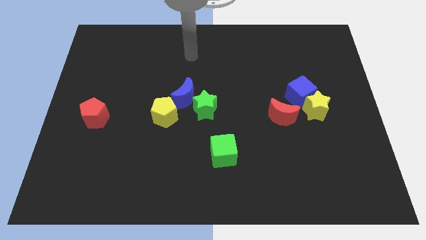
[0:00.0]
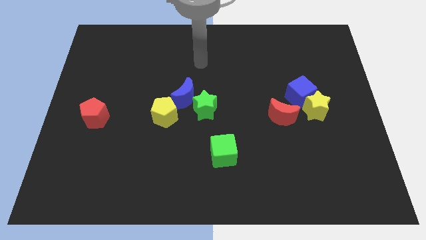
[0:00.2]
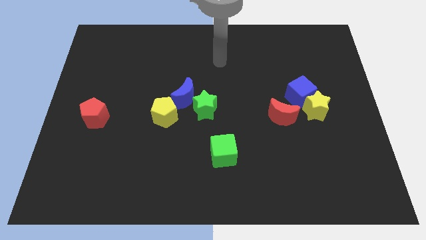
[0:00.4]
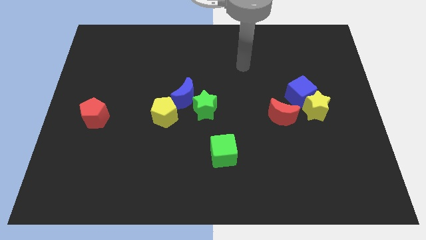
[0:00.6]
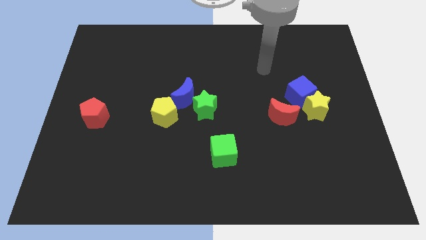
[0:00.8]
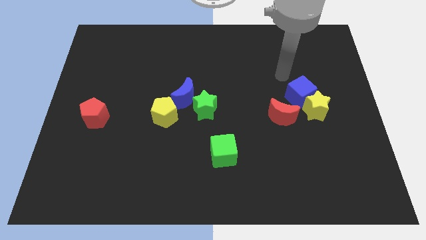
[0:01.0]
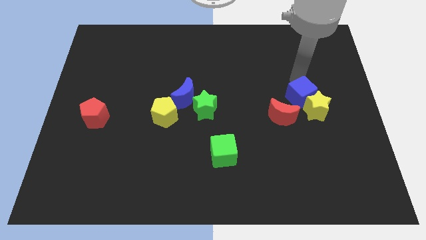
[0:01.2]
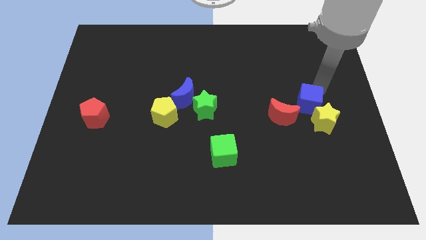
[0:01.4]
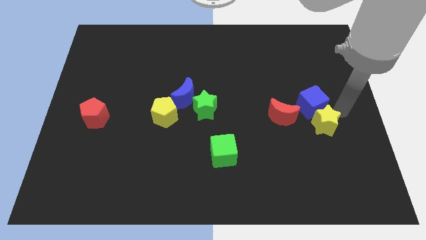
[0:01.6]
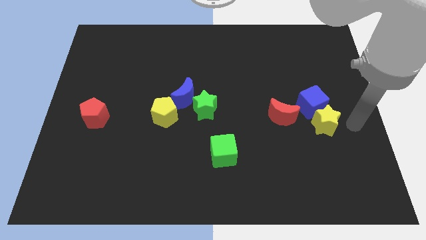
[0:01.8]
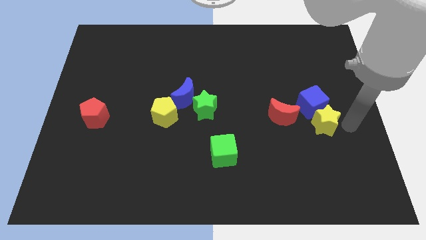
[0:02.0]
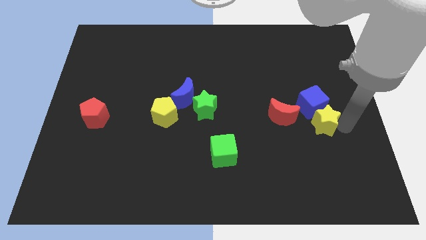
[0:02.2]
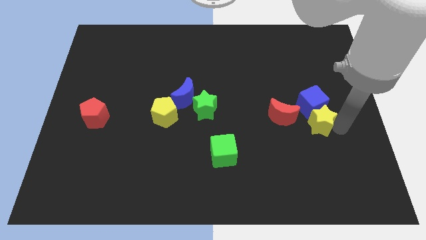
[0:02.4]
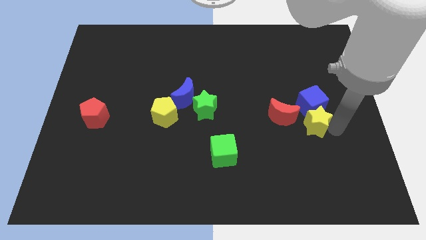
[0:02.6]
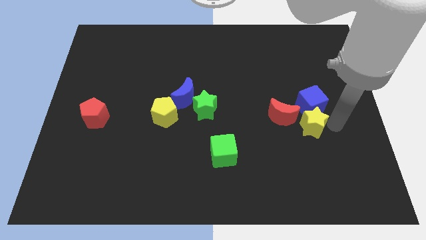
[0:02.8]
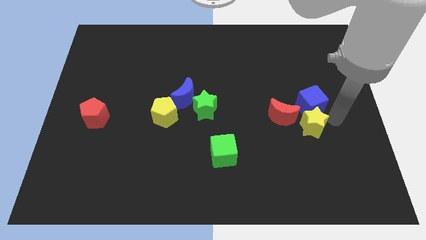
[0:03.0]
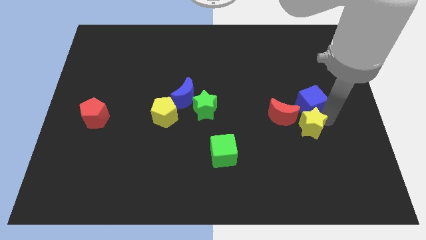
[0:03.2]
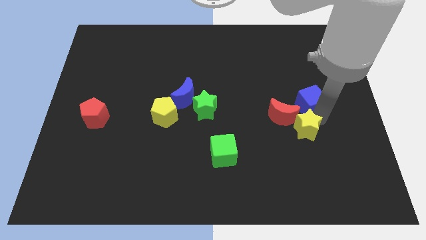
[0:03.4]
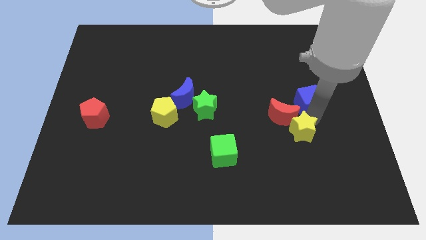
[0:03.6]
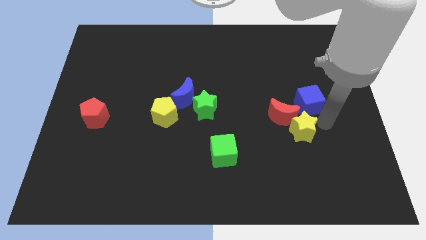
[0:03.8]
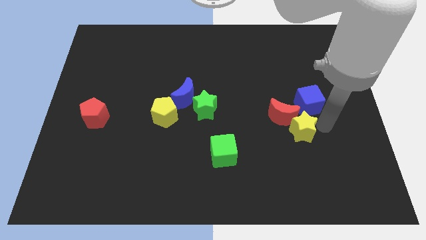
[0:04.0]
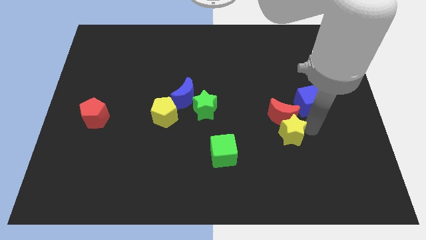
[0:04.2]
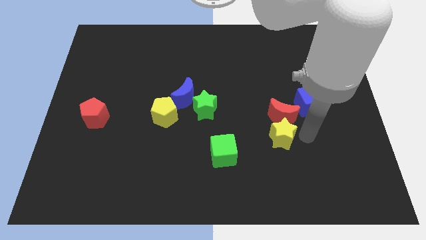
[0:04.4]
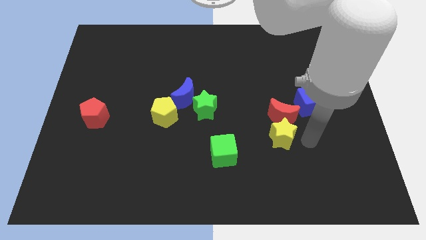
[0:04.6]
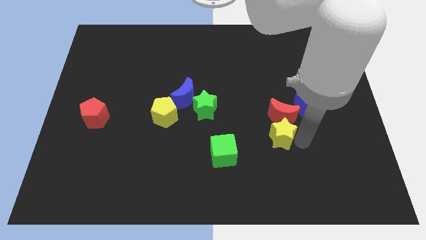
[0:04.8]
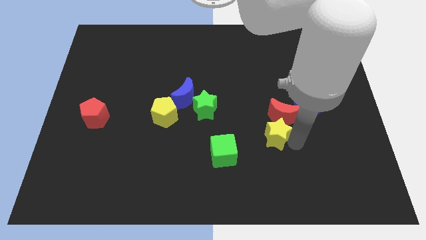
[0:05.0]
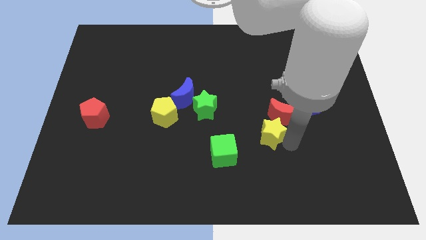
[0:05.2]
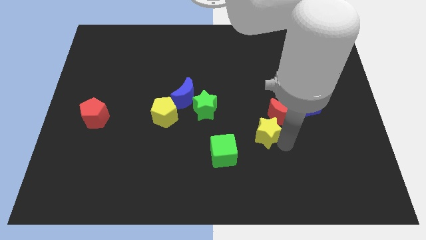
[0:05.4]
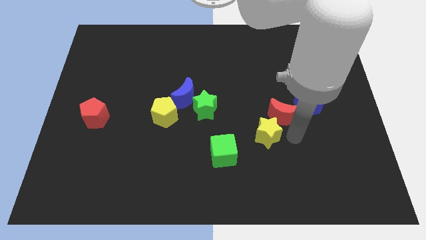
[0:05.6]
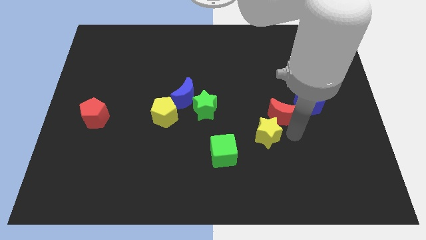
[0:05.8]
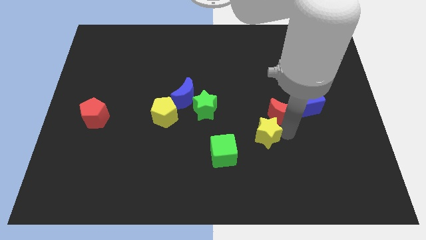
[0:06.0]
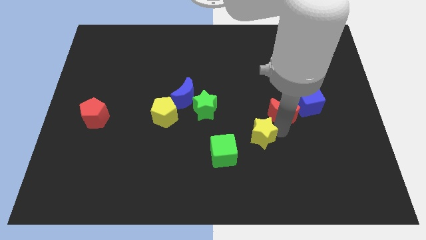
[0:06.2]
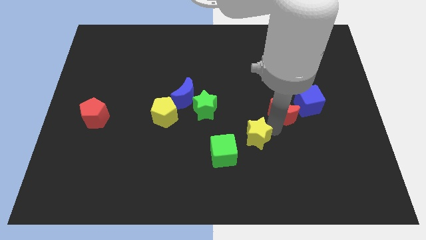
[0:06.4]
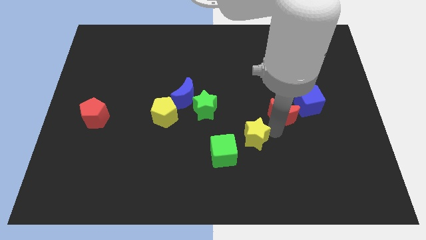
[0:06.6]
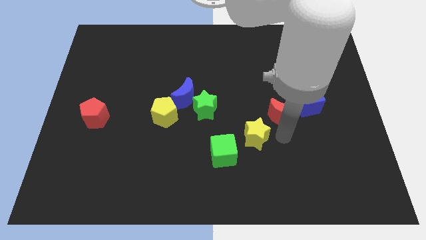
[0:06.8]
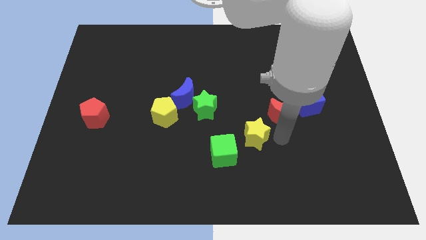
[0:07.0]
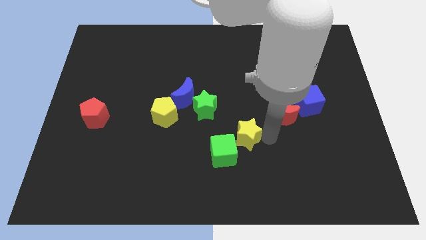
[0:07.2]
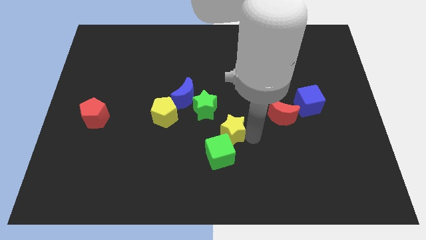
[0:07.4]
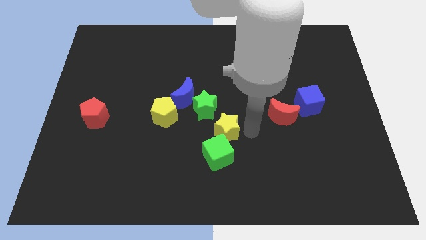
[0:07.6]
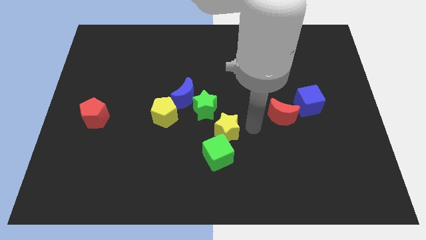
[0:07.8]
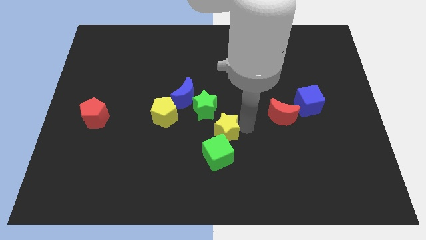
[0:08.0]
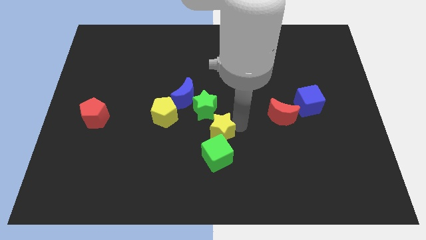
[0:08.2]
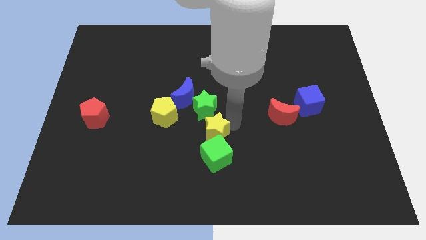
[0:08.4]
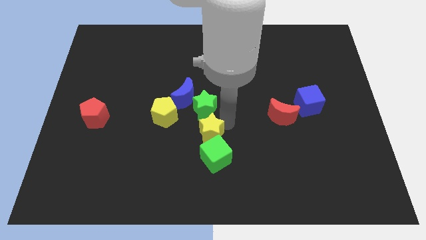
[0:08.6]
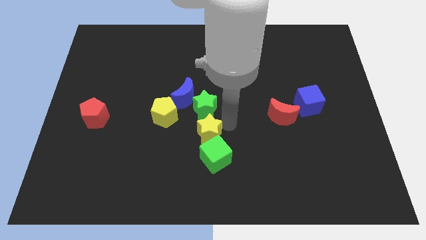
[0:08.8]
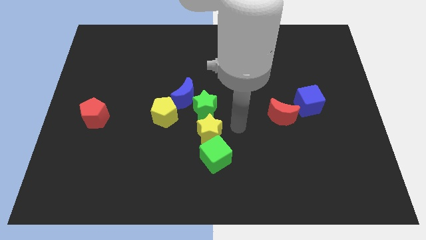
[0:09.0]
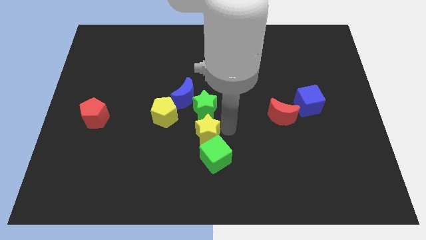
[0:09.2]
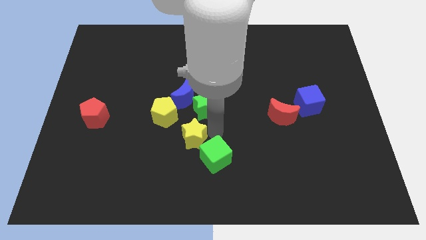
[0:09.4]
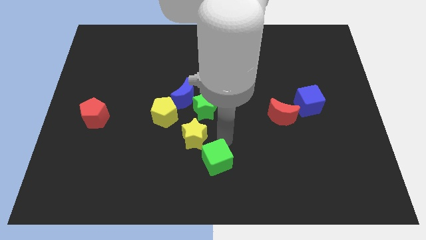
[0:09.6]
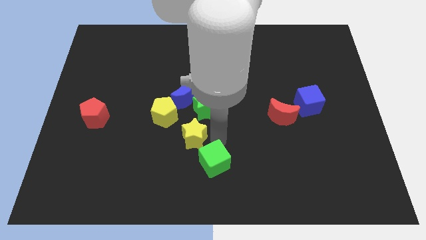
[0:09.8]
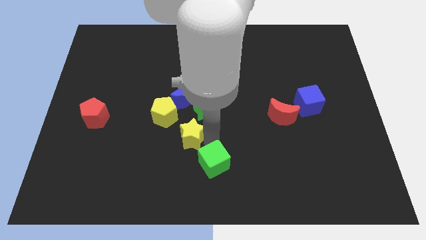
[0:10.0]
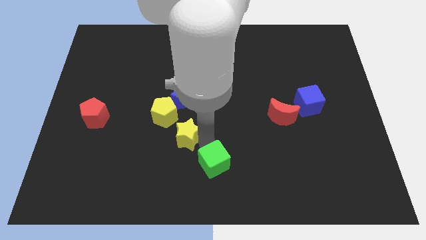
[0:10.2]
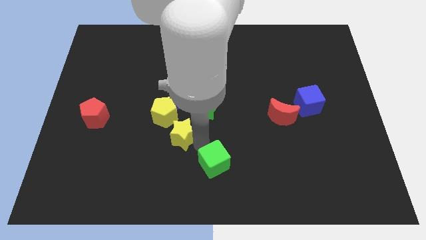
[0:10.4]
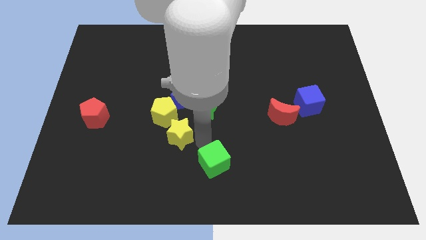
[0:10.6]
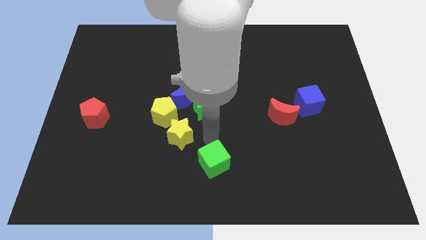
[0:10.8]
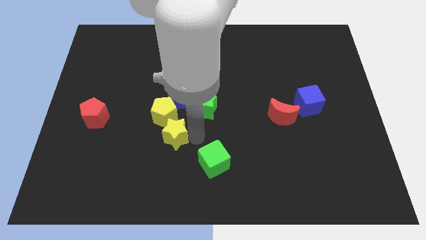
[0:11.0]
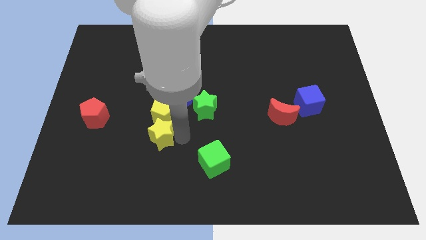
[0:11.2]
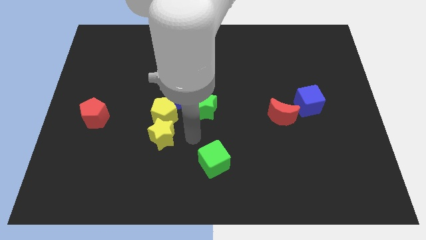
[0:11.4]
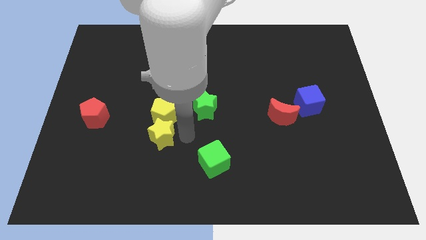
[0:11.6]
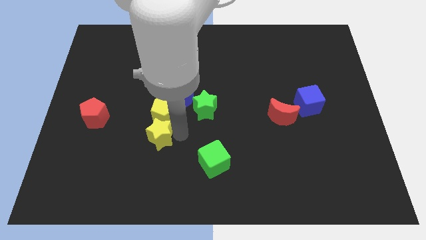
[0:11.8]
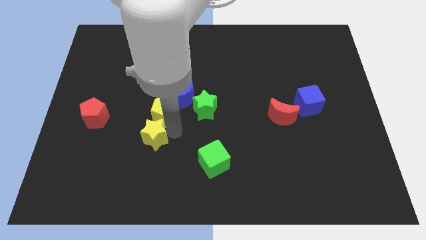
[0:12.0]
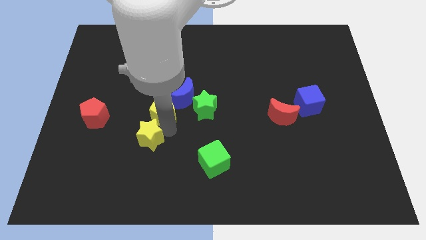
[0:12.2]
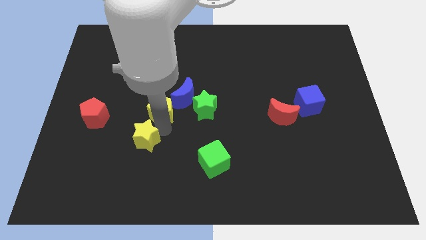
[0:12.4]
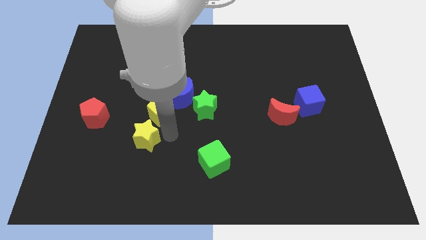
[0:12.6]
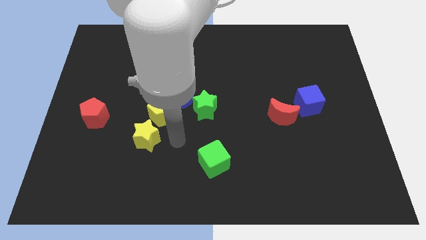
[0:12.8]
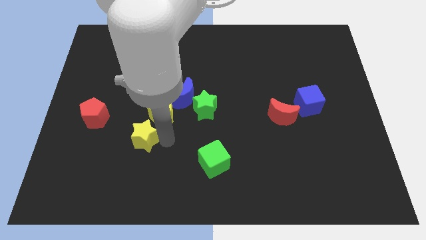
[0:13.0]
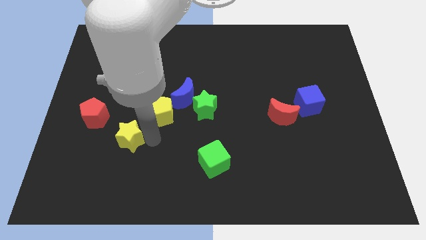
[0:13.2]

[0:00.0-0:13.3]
put the yellow star to the bottom right of the red pentagon

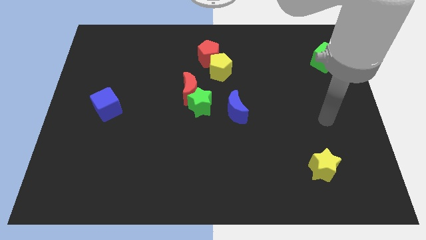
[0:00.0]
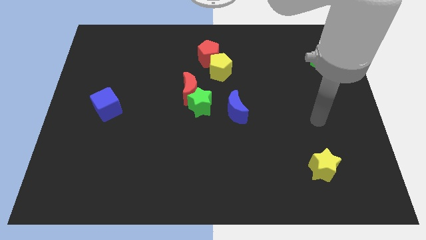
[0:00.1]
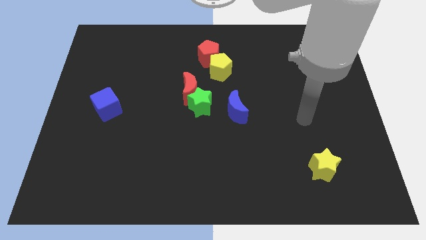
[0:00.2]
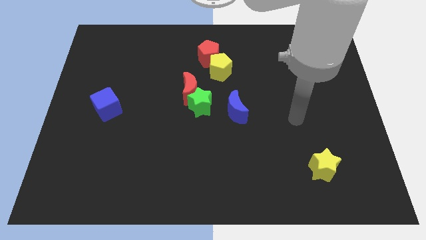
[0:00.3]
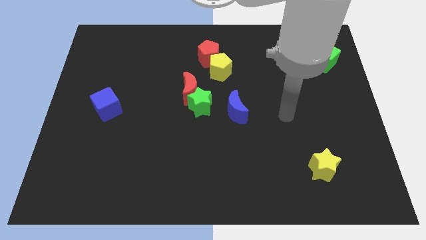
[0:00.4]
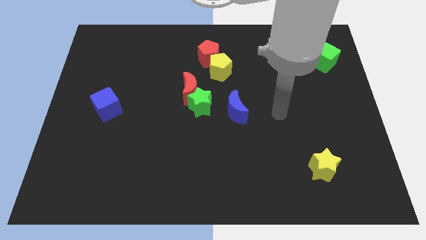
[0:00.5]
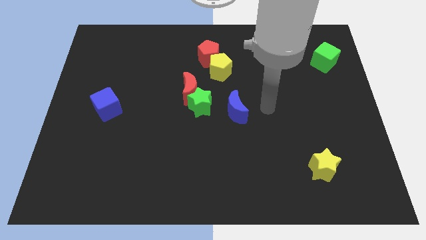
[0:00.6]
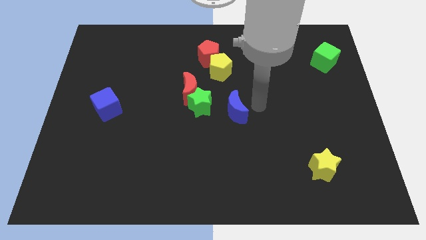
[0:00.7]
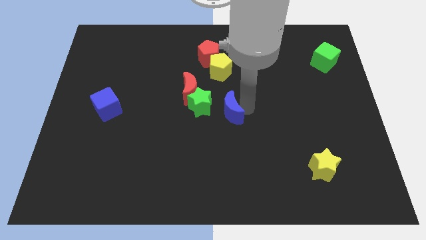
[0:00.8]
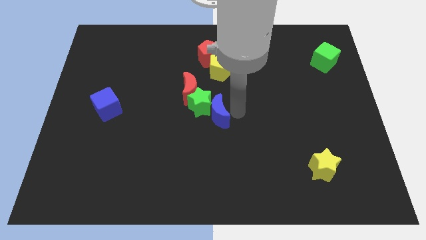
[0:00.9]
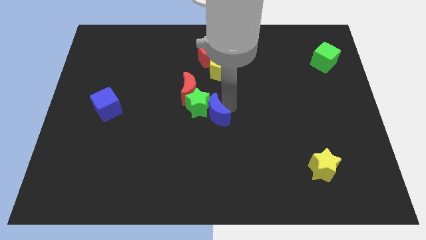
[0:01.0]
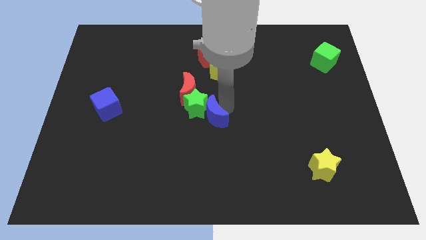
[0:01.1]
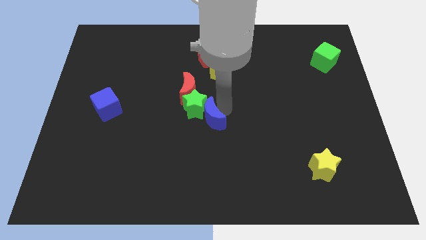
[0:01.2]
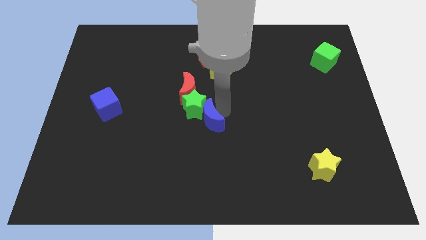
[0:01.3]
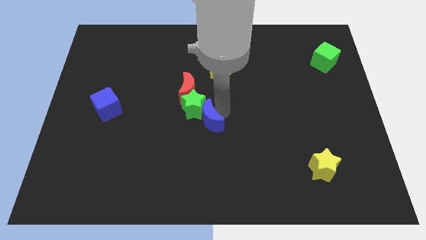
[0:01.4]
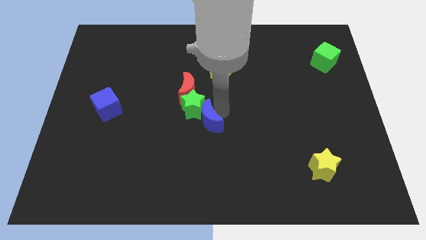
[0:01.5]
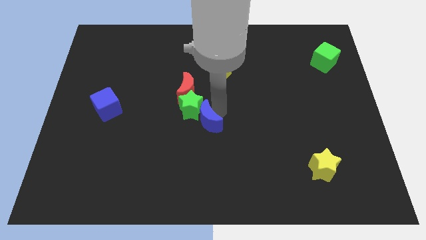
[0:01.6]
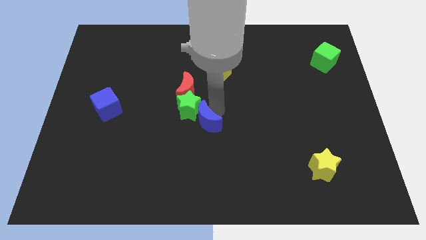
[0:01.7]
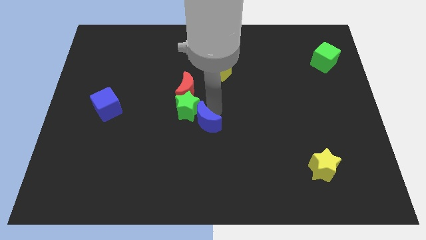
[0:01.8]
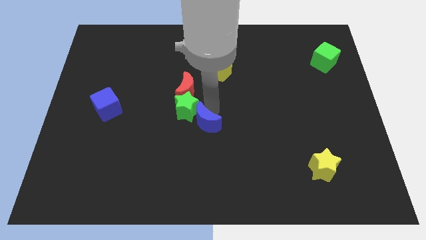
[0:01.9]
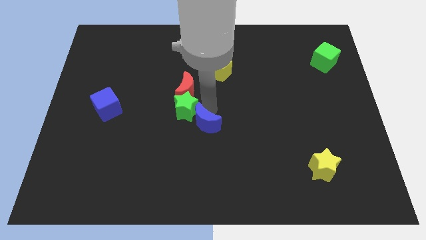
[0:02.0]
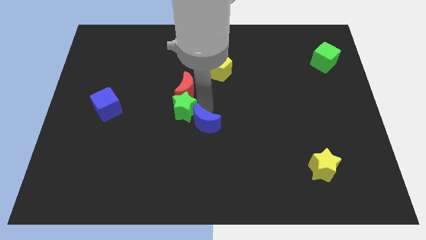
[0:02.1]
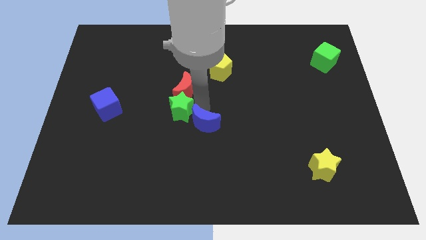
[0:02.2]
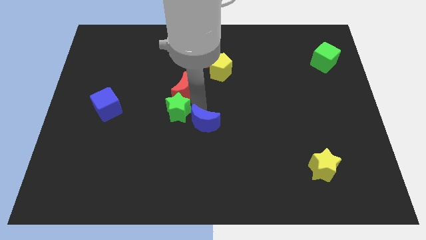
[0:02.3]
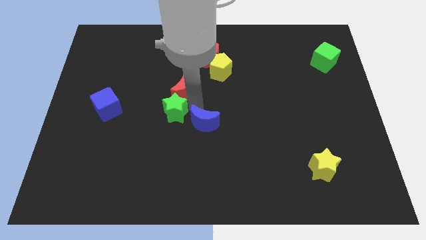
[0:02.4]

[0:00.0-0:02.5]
slide the green star right of the blue cube
